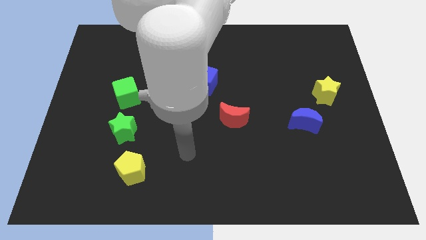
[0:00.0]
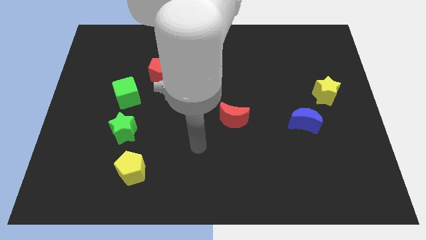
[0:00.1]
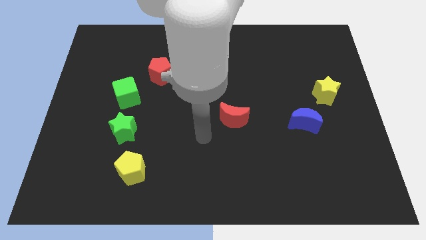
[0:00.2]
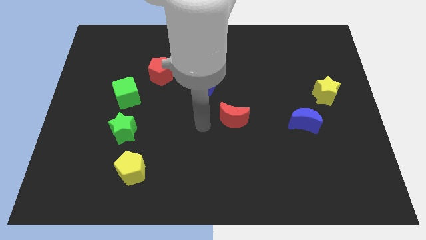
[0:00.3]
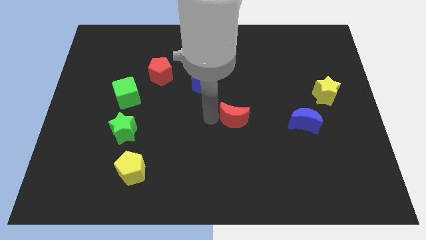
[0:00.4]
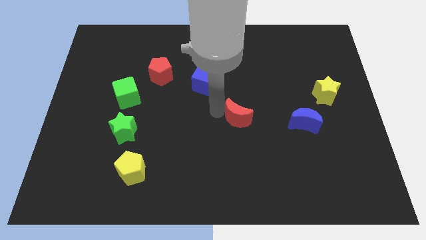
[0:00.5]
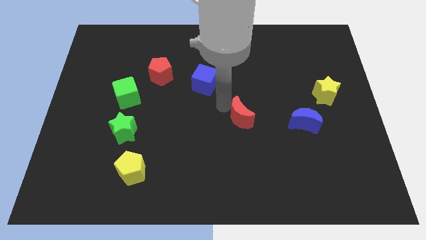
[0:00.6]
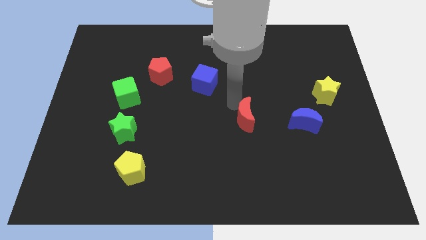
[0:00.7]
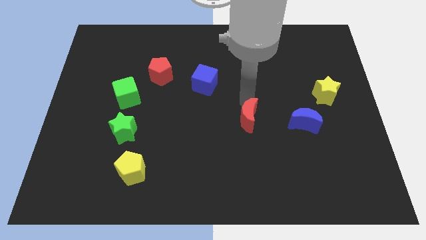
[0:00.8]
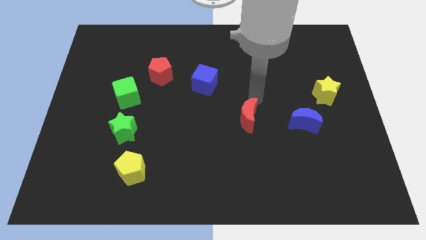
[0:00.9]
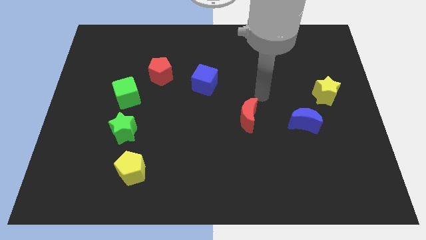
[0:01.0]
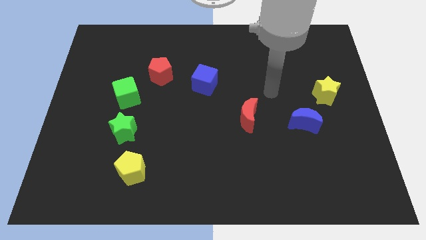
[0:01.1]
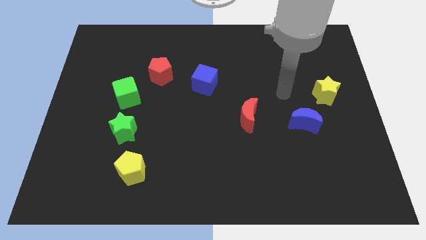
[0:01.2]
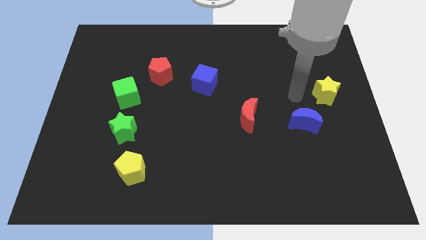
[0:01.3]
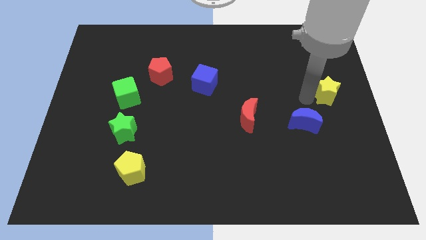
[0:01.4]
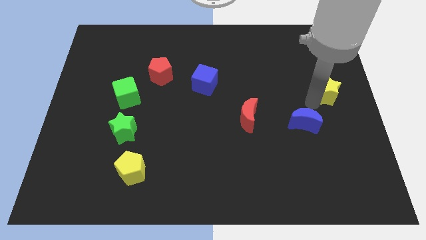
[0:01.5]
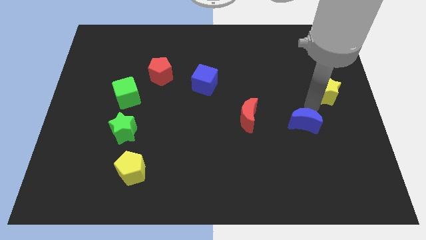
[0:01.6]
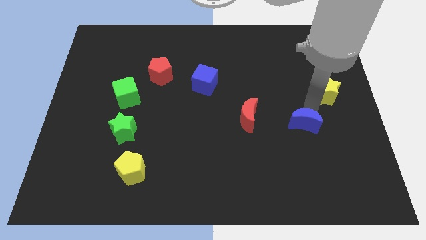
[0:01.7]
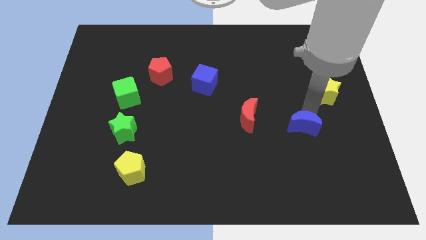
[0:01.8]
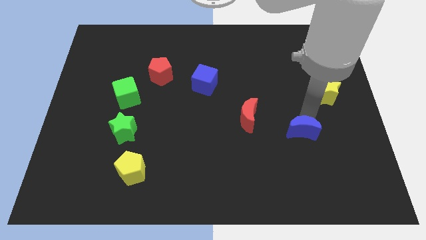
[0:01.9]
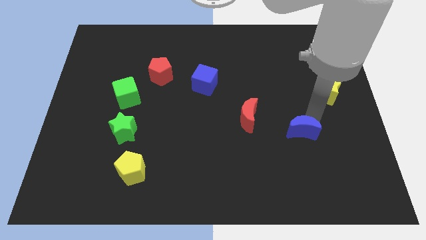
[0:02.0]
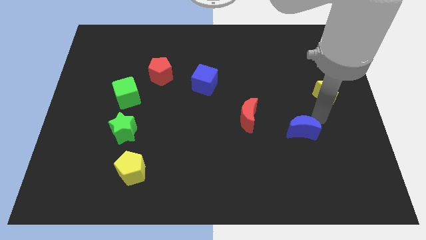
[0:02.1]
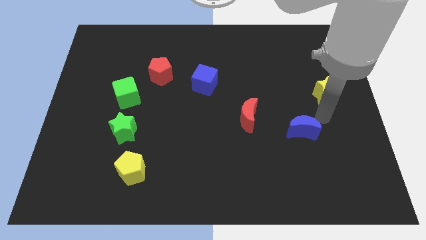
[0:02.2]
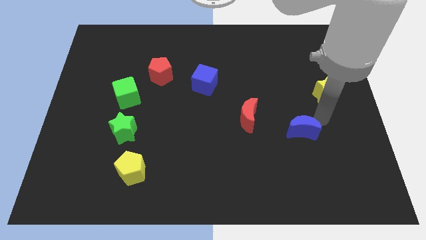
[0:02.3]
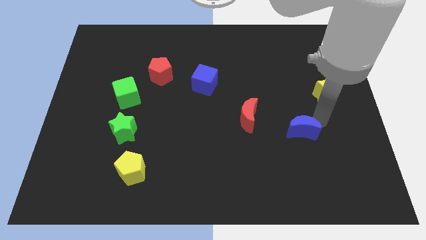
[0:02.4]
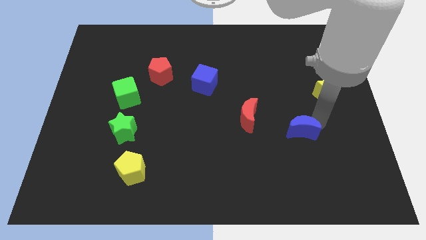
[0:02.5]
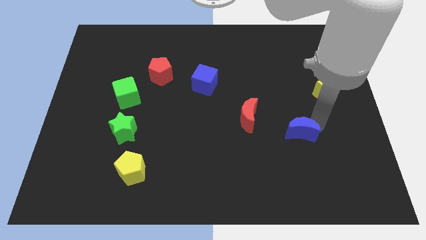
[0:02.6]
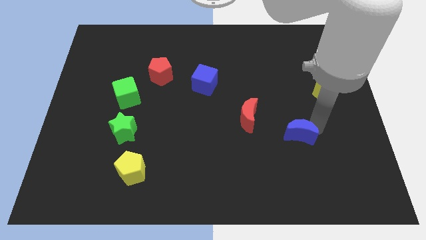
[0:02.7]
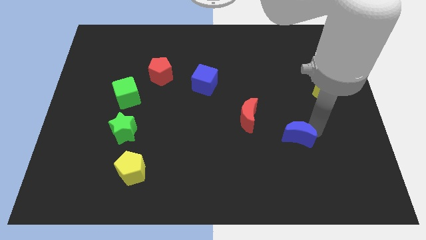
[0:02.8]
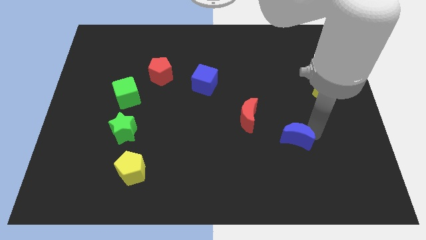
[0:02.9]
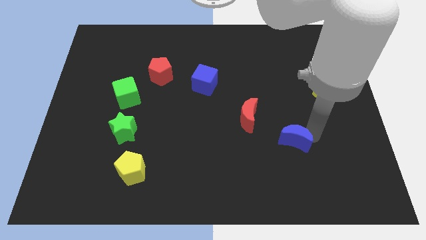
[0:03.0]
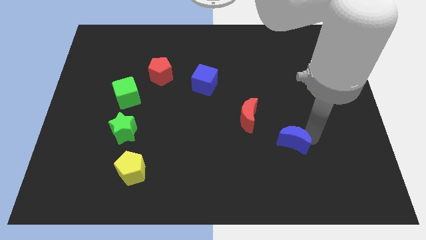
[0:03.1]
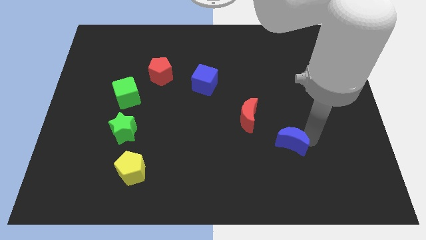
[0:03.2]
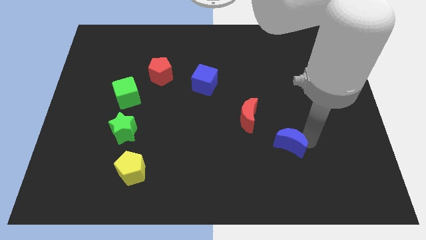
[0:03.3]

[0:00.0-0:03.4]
slightly slide the blue moon diagonally downwards and left

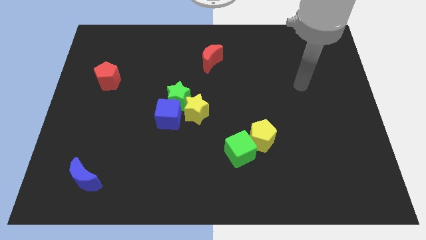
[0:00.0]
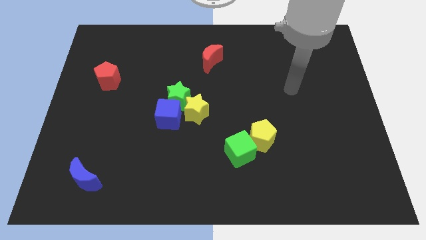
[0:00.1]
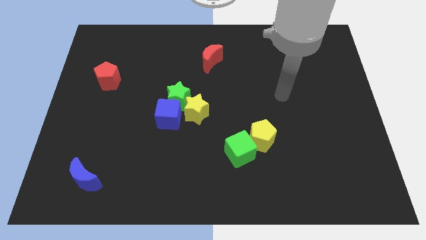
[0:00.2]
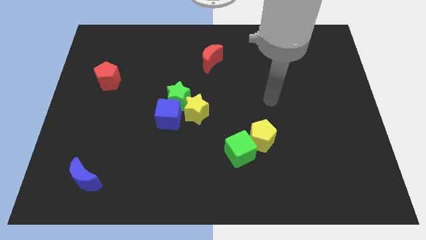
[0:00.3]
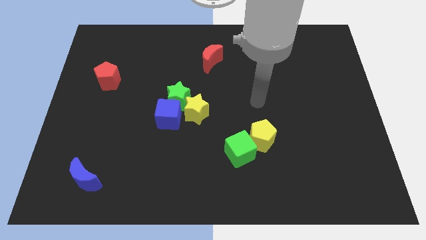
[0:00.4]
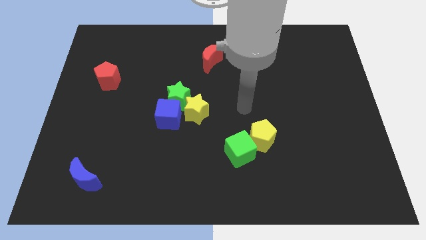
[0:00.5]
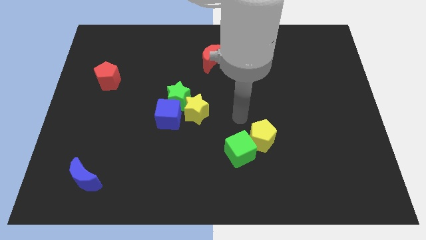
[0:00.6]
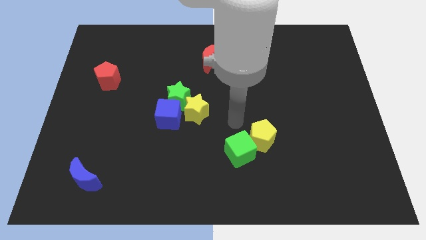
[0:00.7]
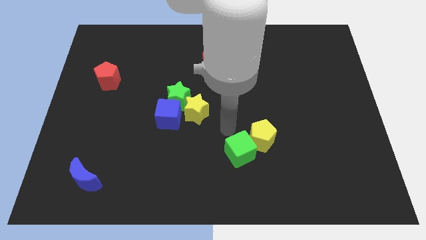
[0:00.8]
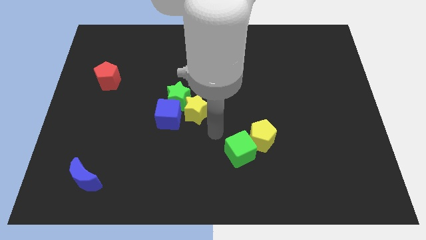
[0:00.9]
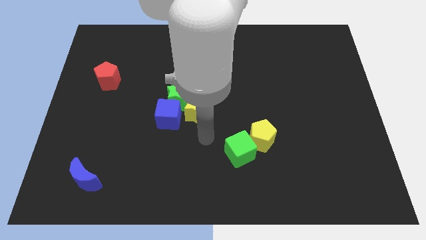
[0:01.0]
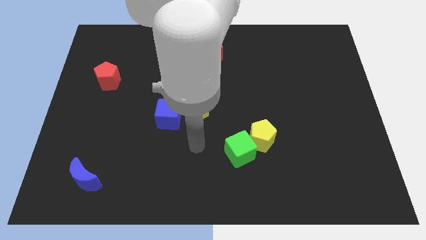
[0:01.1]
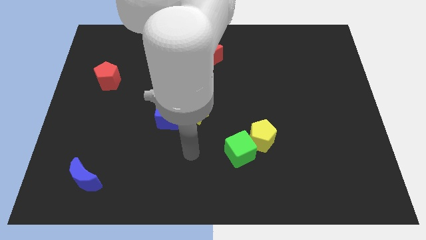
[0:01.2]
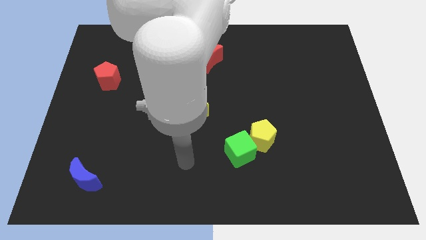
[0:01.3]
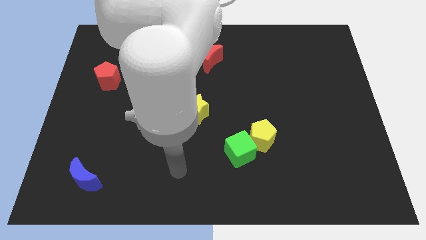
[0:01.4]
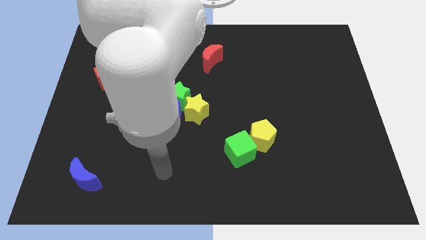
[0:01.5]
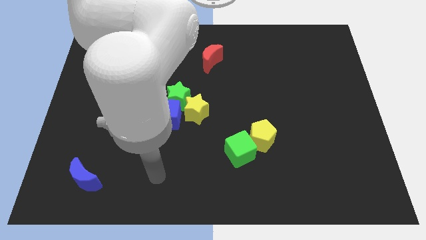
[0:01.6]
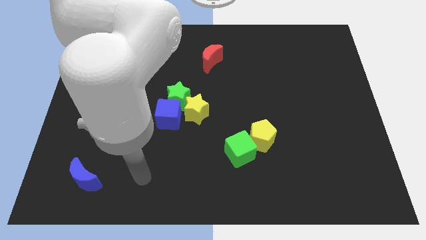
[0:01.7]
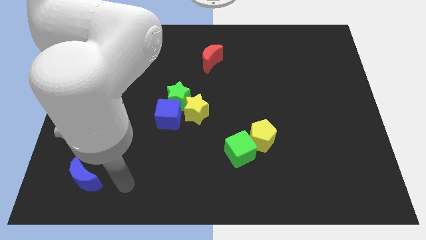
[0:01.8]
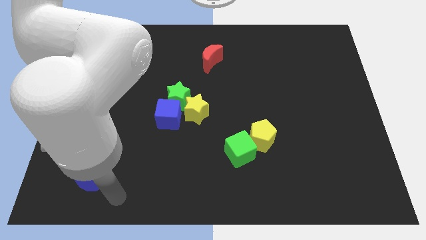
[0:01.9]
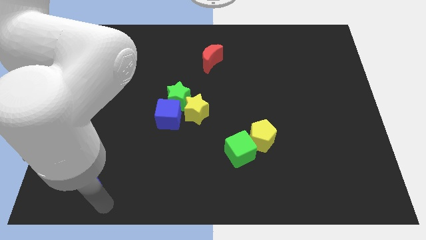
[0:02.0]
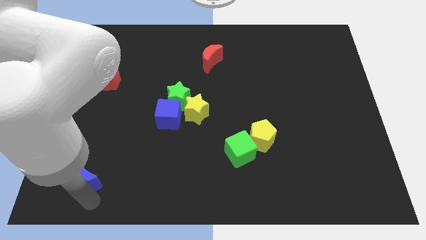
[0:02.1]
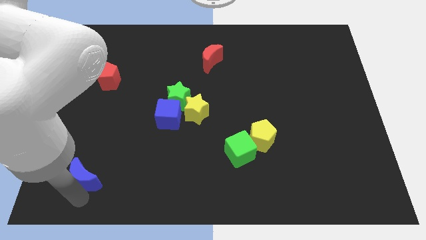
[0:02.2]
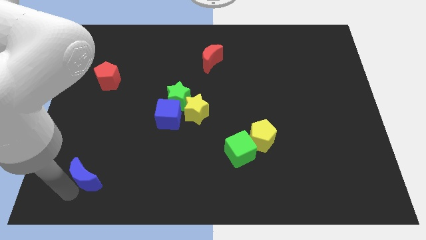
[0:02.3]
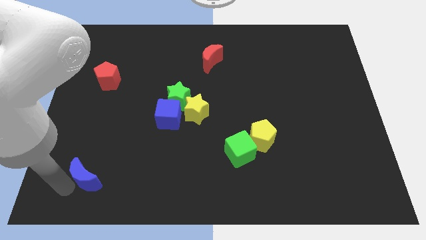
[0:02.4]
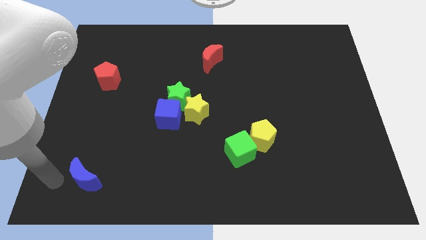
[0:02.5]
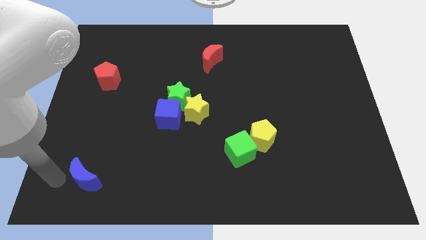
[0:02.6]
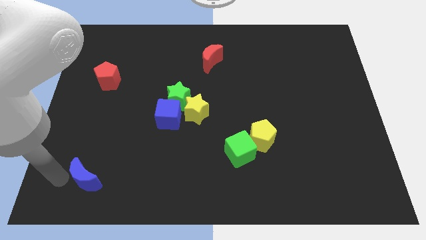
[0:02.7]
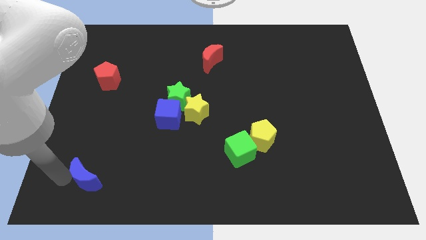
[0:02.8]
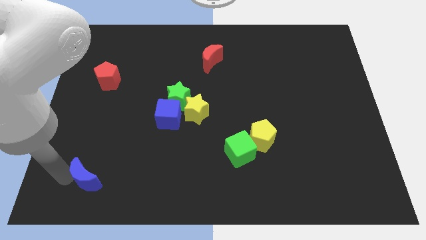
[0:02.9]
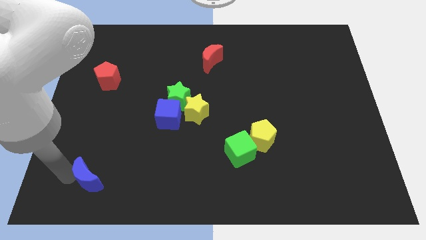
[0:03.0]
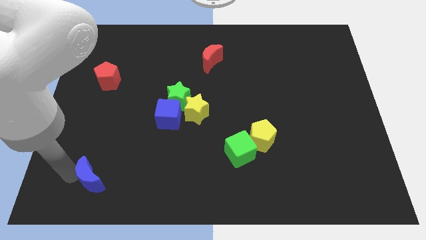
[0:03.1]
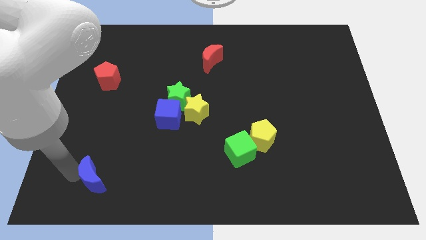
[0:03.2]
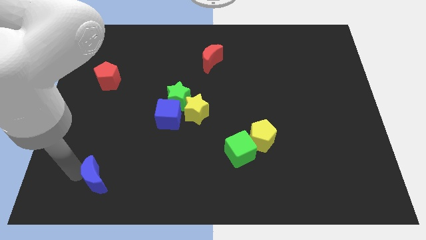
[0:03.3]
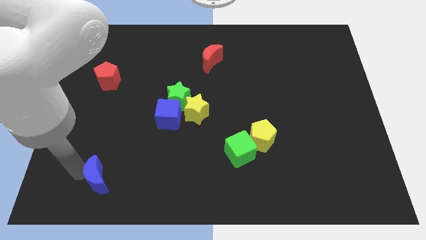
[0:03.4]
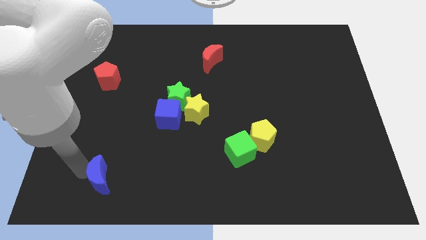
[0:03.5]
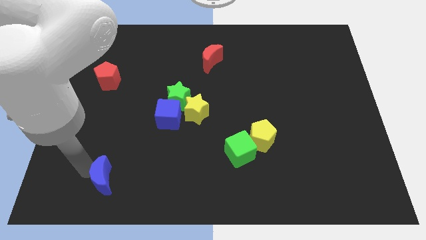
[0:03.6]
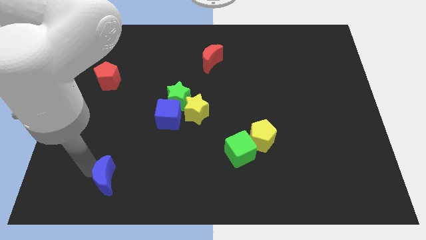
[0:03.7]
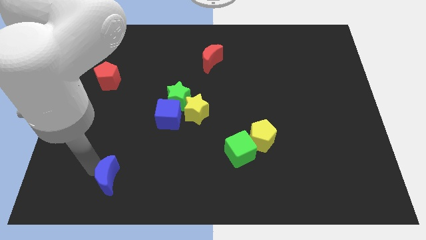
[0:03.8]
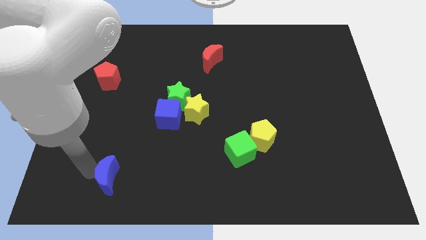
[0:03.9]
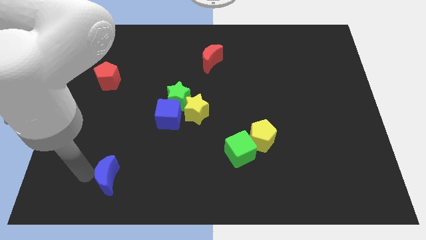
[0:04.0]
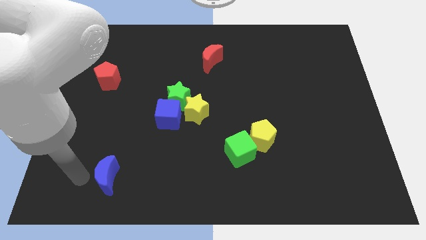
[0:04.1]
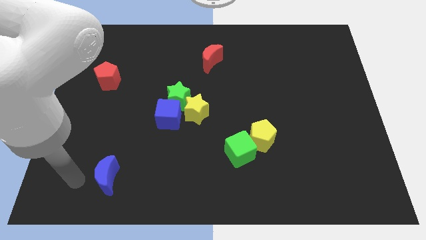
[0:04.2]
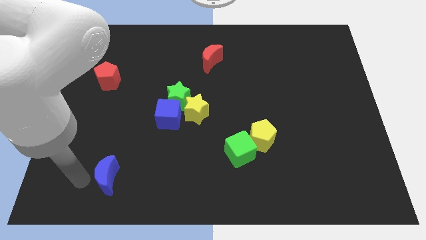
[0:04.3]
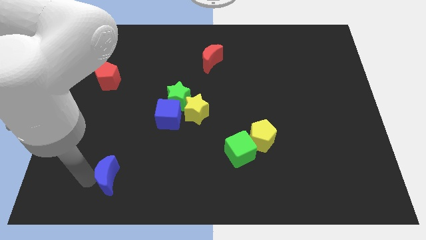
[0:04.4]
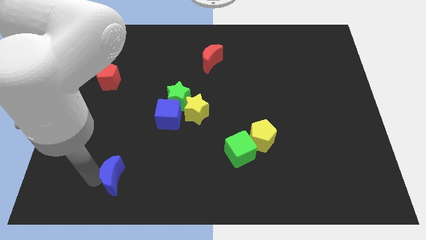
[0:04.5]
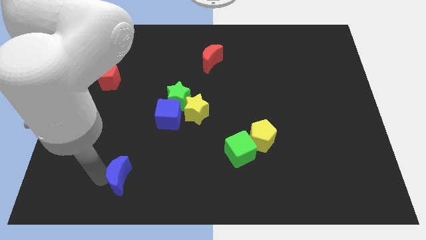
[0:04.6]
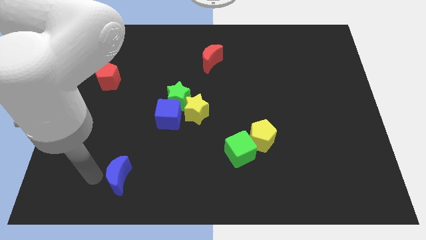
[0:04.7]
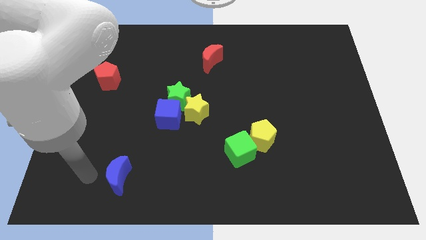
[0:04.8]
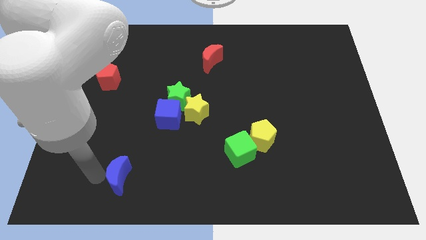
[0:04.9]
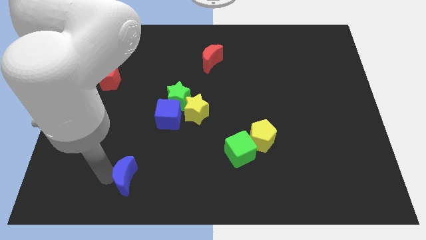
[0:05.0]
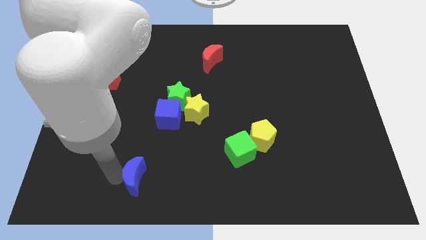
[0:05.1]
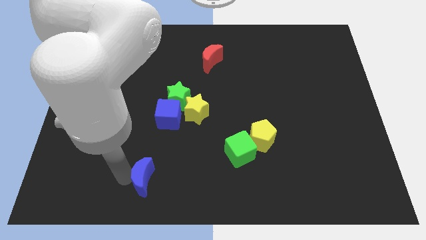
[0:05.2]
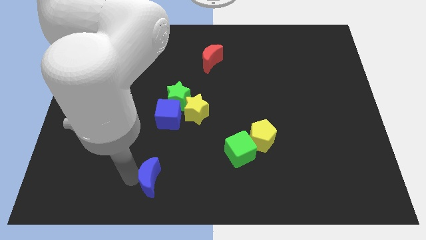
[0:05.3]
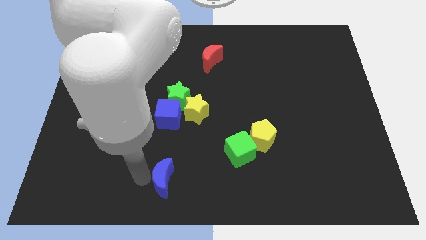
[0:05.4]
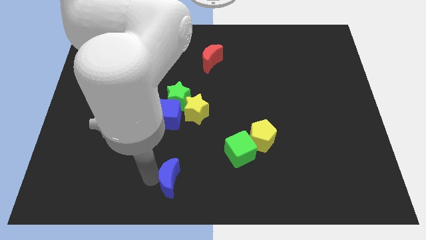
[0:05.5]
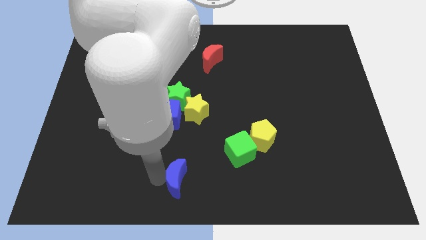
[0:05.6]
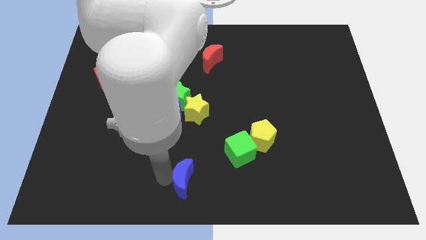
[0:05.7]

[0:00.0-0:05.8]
slide the blue moon right
